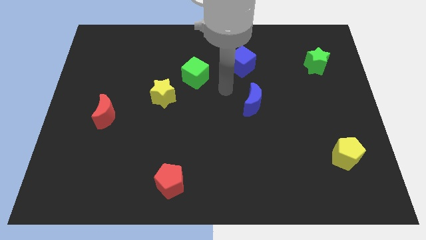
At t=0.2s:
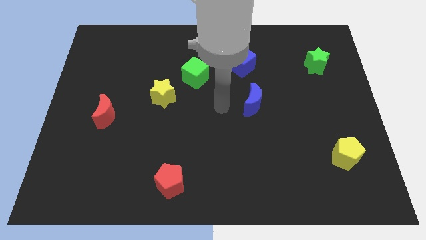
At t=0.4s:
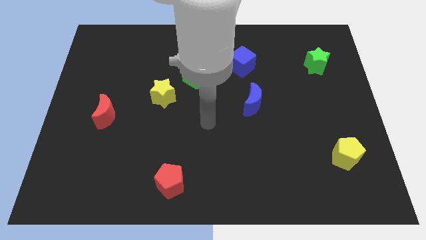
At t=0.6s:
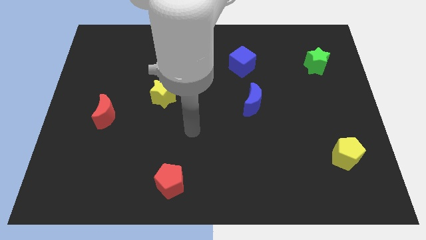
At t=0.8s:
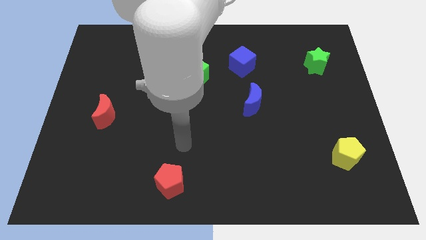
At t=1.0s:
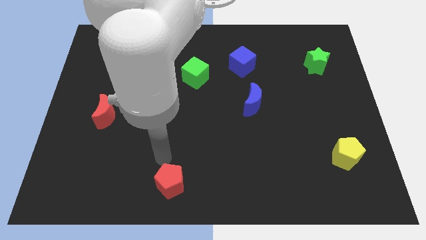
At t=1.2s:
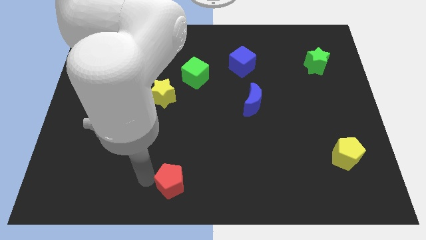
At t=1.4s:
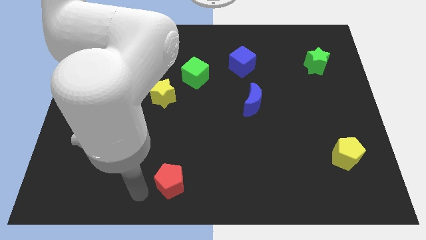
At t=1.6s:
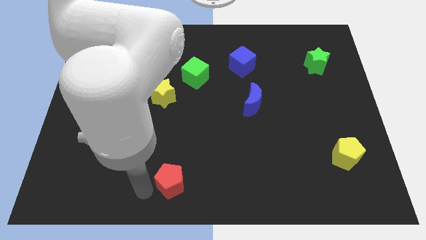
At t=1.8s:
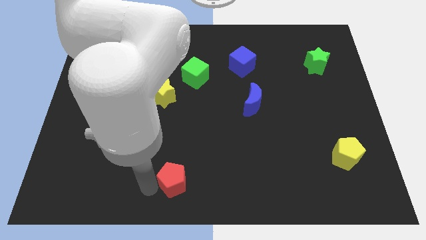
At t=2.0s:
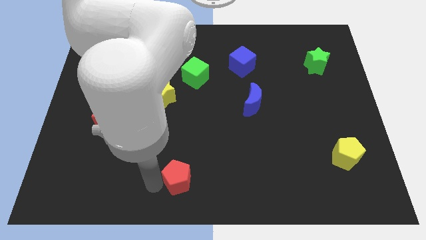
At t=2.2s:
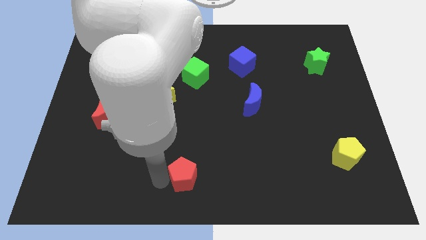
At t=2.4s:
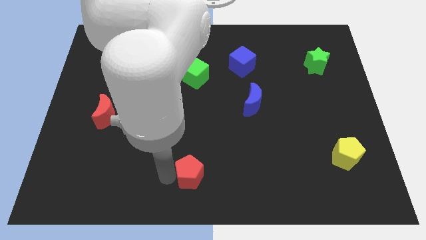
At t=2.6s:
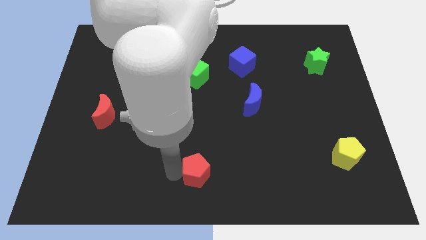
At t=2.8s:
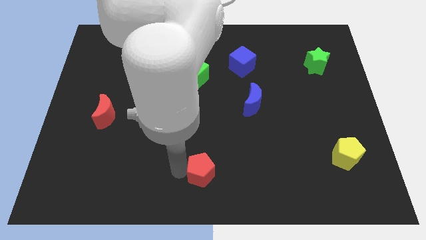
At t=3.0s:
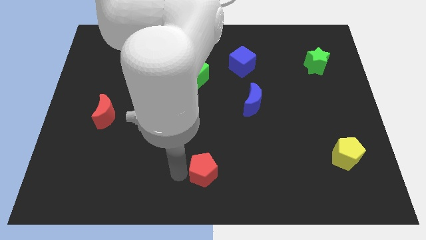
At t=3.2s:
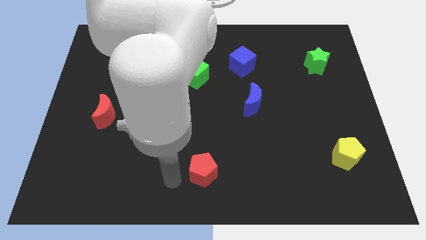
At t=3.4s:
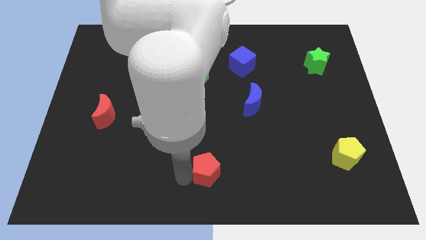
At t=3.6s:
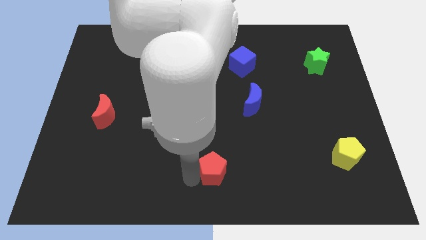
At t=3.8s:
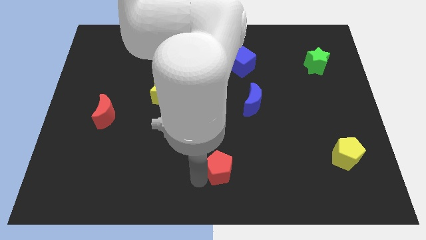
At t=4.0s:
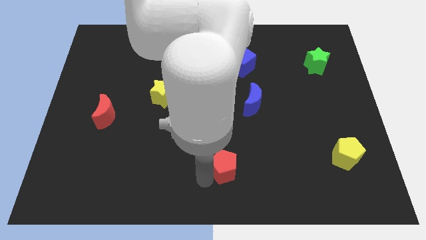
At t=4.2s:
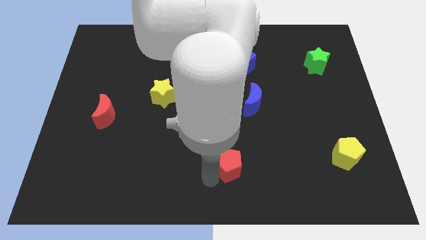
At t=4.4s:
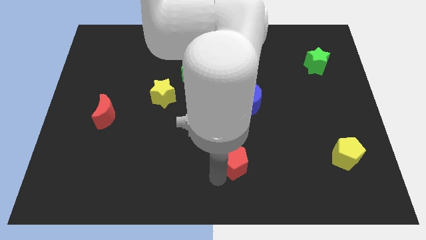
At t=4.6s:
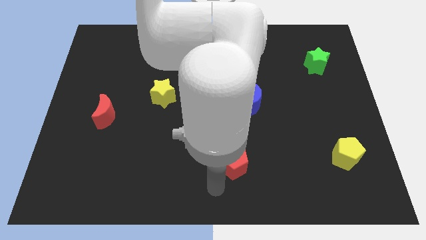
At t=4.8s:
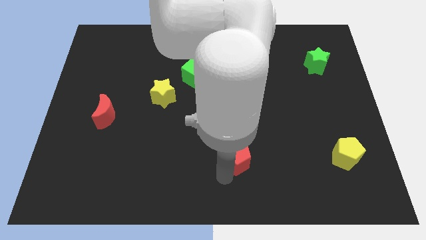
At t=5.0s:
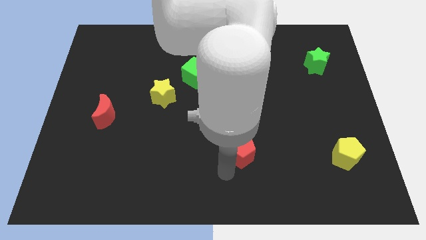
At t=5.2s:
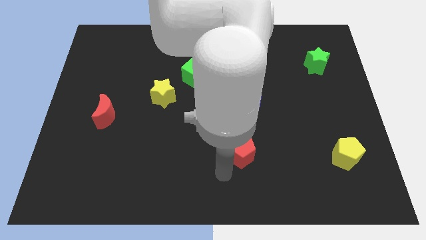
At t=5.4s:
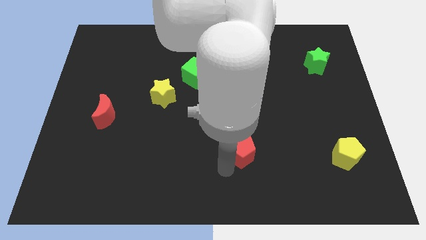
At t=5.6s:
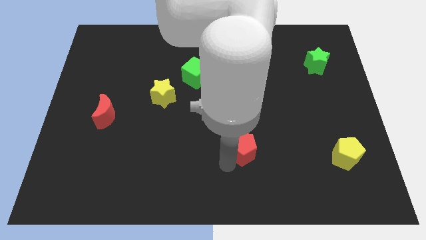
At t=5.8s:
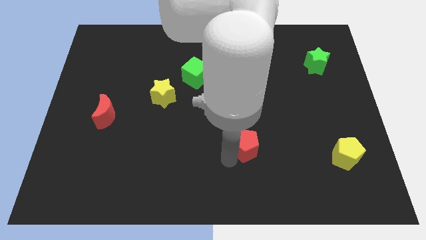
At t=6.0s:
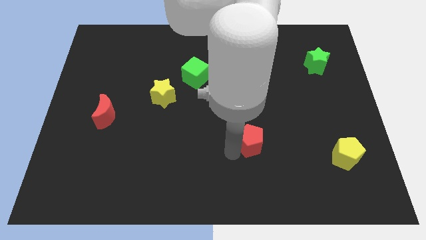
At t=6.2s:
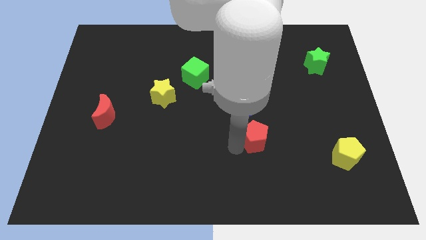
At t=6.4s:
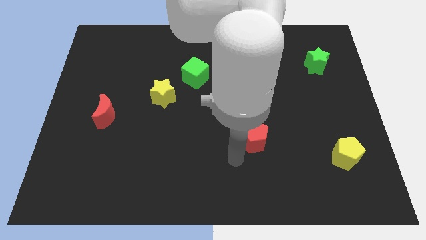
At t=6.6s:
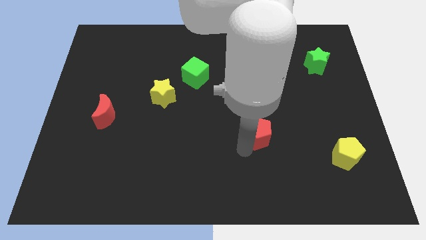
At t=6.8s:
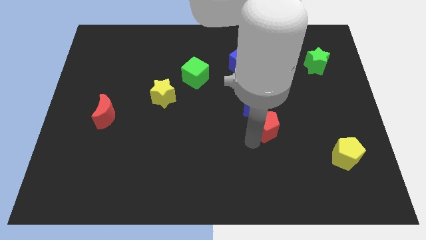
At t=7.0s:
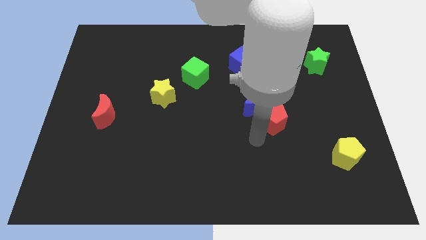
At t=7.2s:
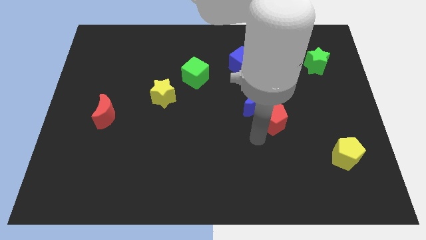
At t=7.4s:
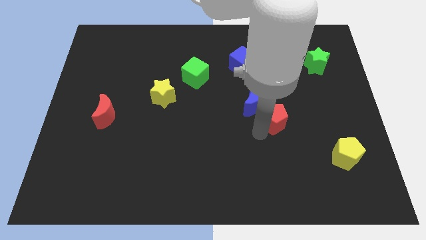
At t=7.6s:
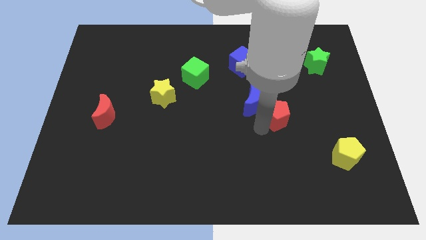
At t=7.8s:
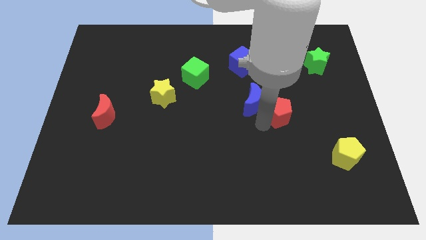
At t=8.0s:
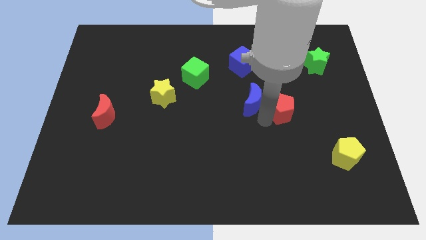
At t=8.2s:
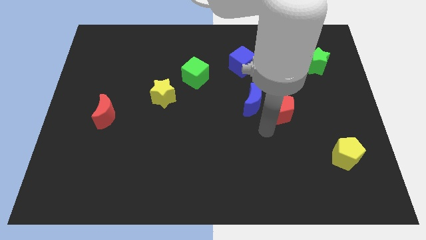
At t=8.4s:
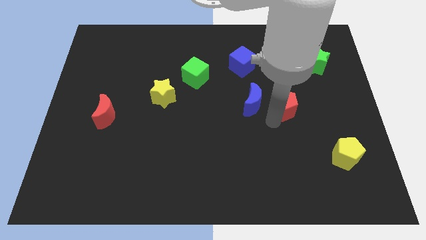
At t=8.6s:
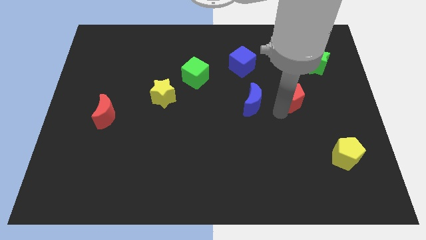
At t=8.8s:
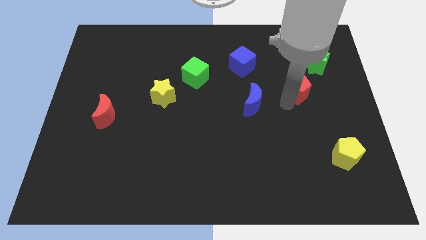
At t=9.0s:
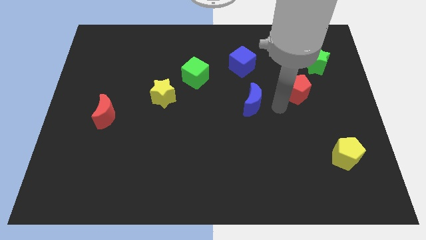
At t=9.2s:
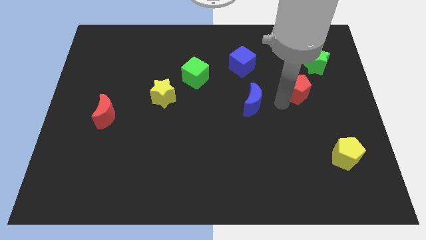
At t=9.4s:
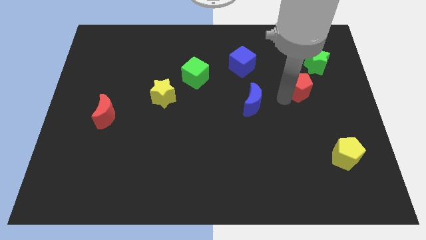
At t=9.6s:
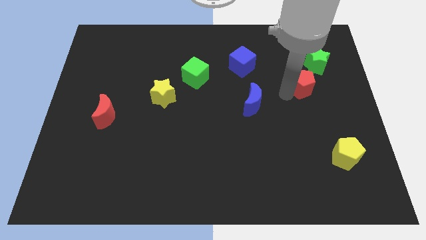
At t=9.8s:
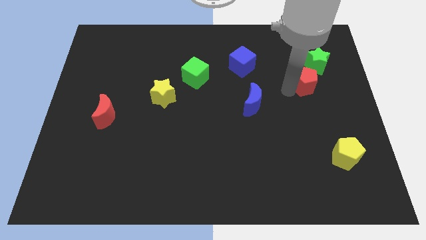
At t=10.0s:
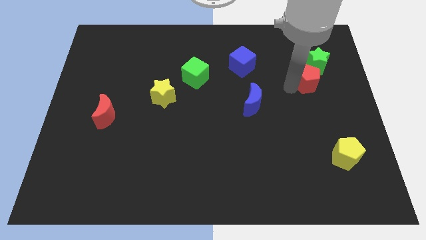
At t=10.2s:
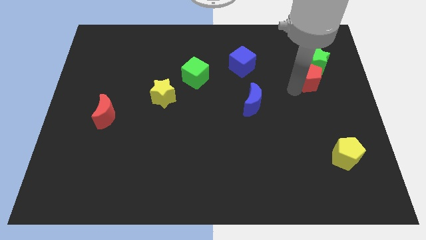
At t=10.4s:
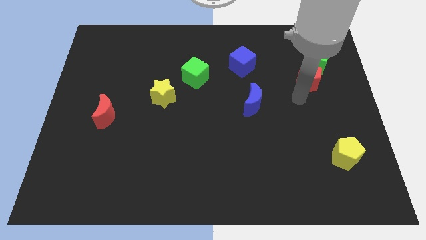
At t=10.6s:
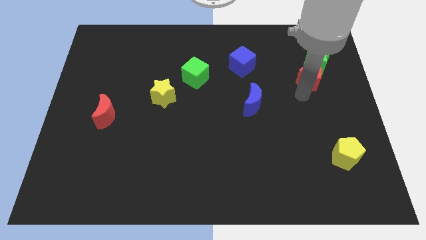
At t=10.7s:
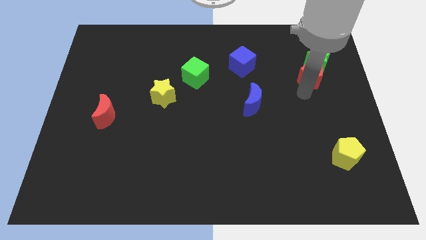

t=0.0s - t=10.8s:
push the red pentagon next to the green star

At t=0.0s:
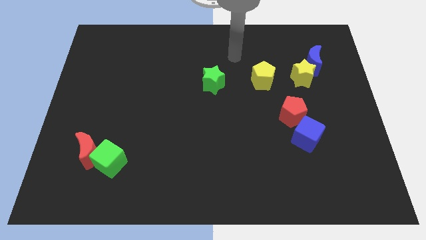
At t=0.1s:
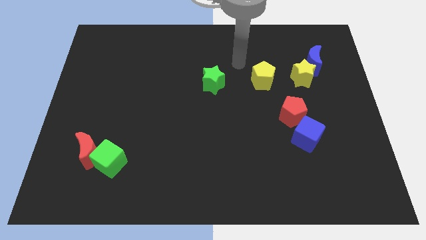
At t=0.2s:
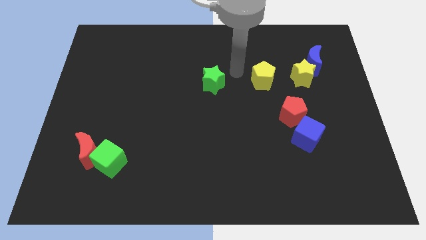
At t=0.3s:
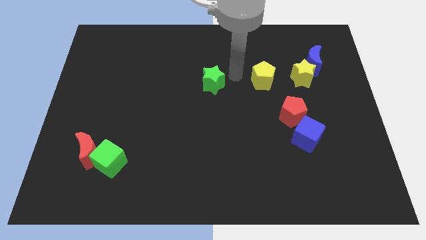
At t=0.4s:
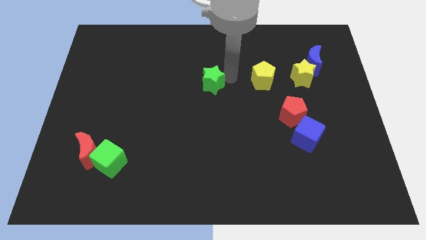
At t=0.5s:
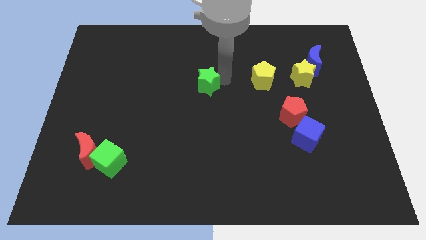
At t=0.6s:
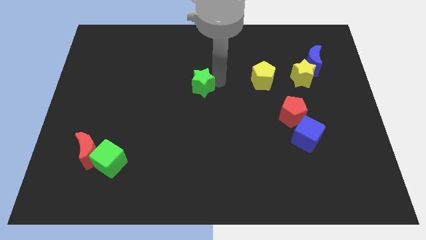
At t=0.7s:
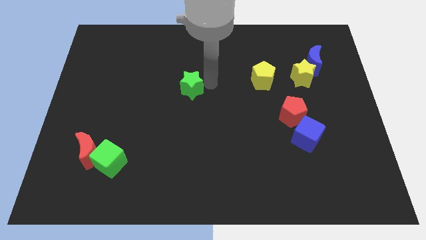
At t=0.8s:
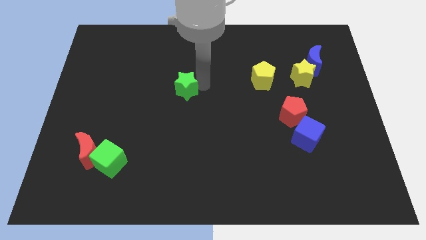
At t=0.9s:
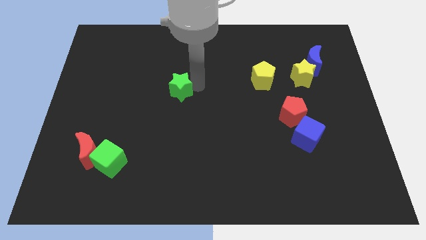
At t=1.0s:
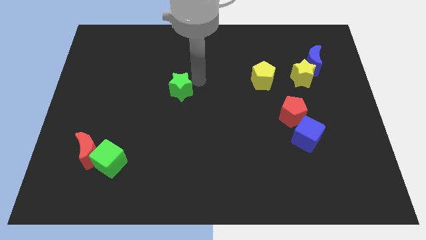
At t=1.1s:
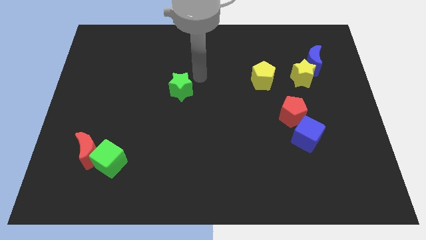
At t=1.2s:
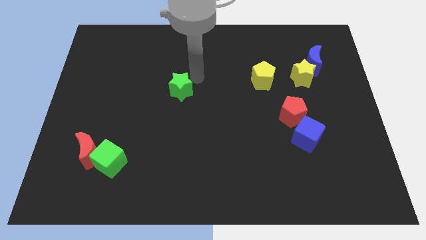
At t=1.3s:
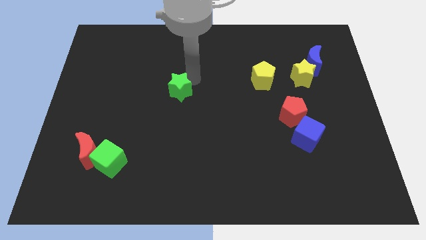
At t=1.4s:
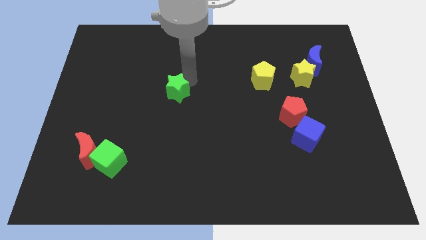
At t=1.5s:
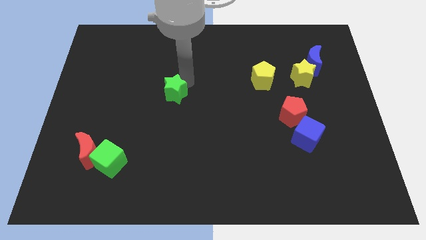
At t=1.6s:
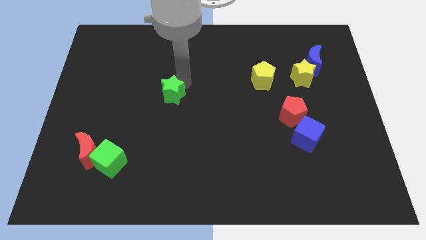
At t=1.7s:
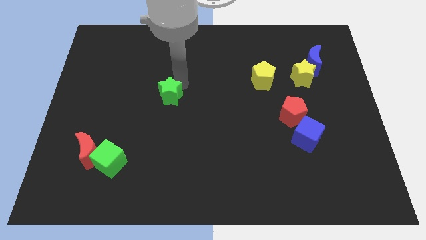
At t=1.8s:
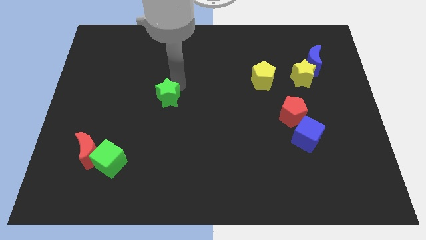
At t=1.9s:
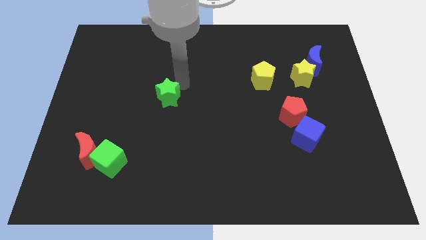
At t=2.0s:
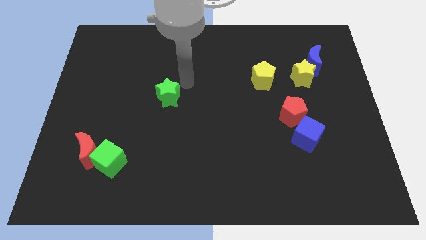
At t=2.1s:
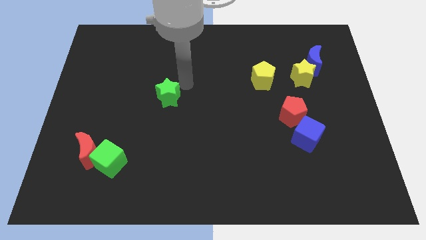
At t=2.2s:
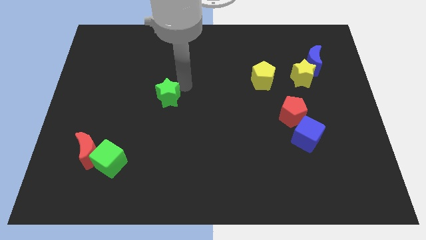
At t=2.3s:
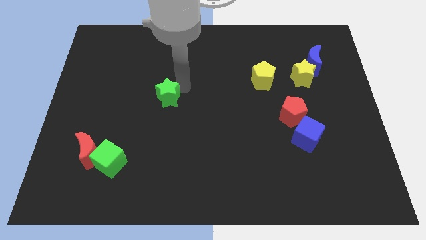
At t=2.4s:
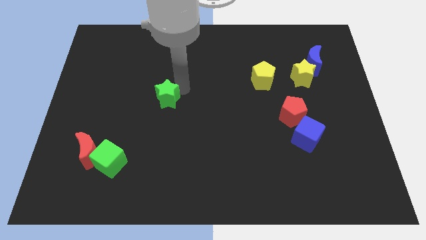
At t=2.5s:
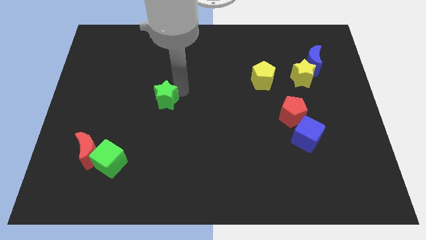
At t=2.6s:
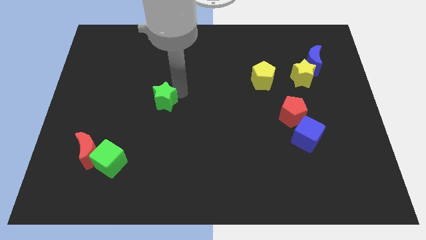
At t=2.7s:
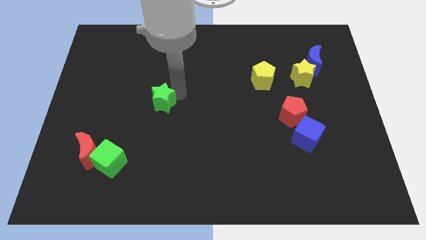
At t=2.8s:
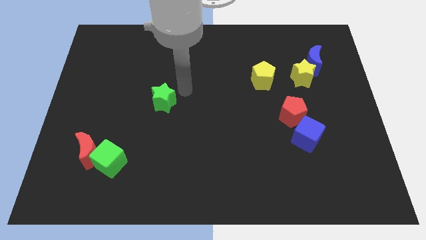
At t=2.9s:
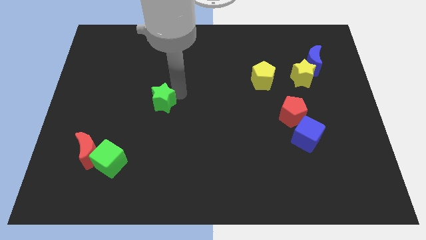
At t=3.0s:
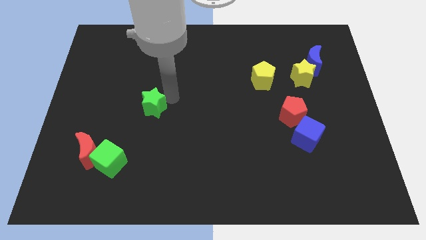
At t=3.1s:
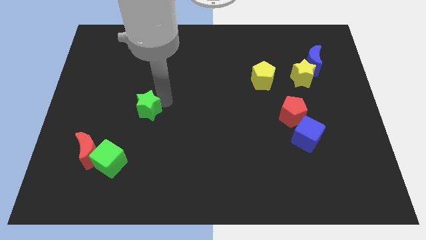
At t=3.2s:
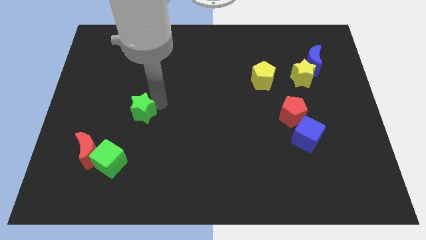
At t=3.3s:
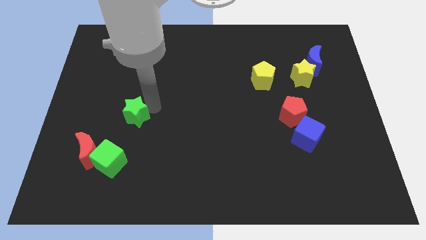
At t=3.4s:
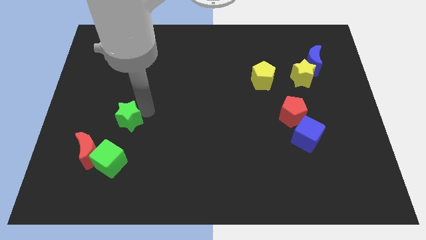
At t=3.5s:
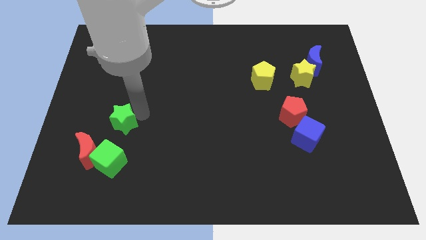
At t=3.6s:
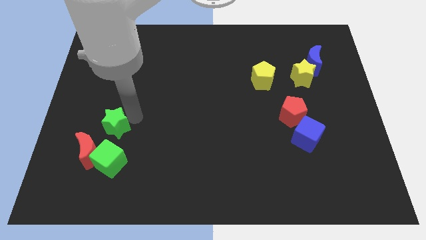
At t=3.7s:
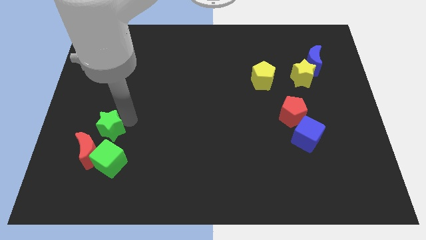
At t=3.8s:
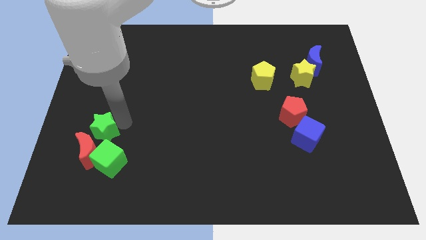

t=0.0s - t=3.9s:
push the green star close to the red moon
